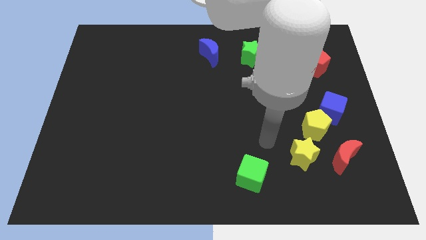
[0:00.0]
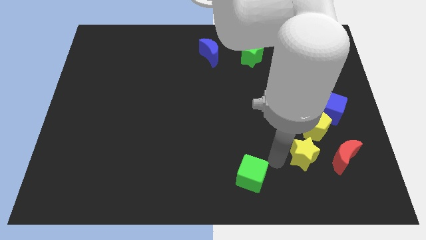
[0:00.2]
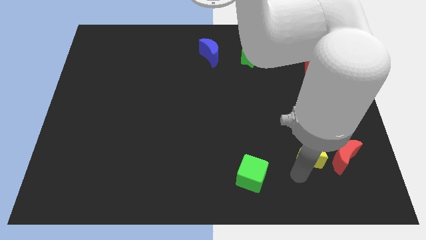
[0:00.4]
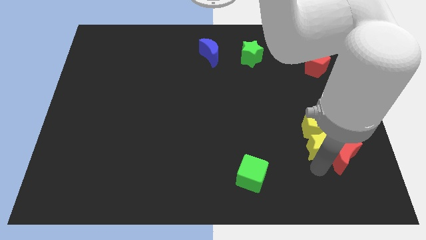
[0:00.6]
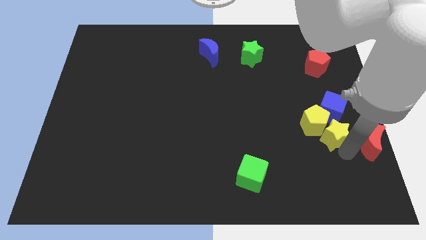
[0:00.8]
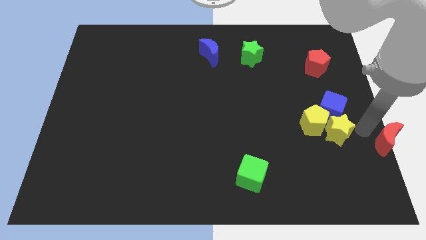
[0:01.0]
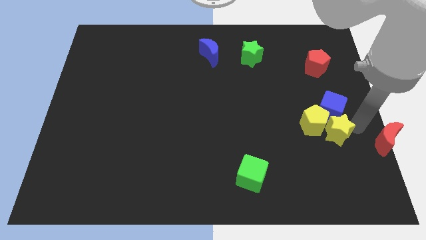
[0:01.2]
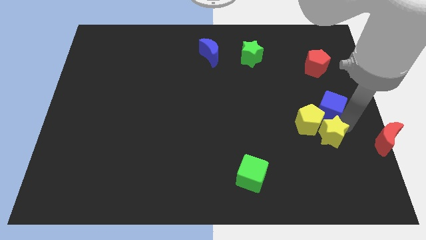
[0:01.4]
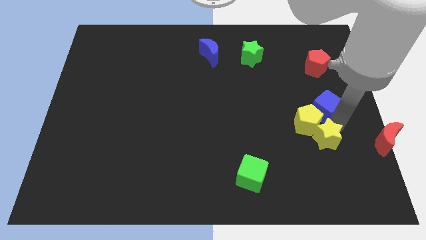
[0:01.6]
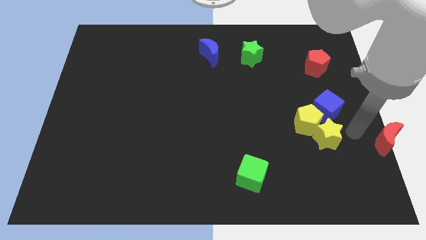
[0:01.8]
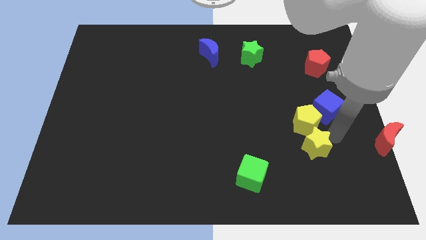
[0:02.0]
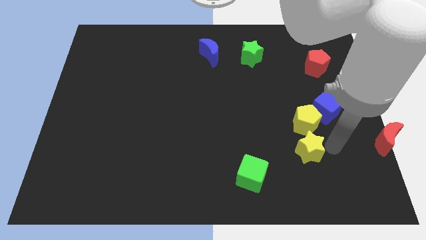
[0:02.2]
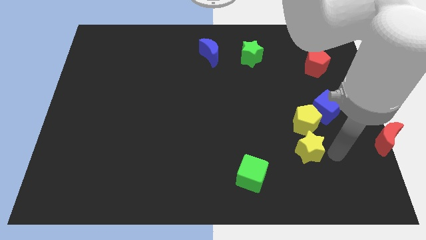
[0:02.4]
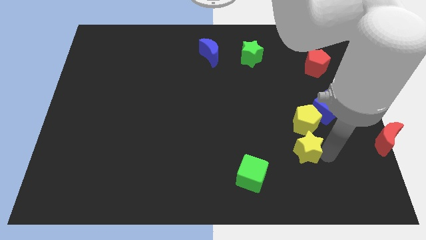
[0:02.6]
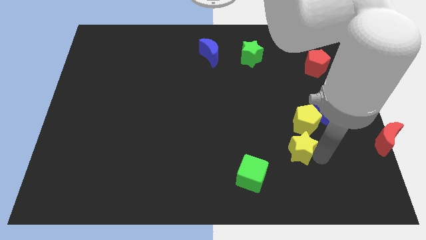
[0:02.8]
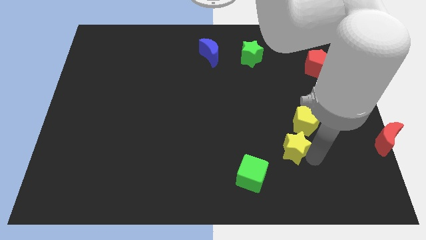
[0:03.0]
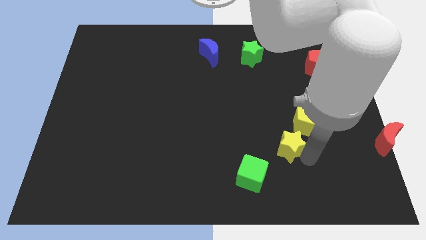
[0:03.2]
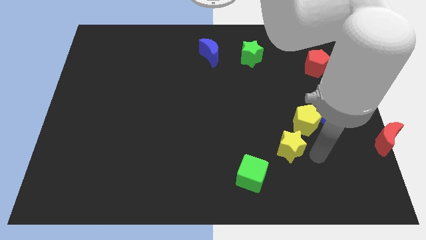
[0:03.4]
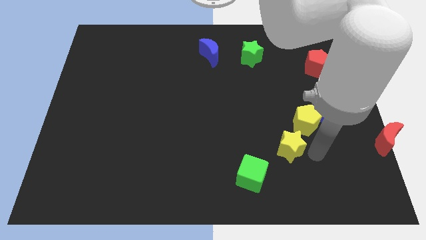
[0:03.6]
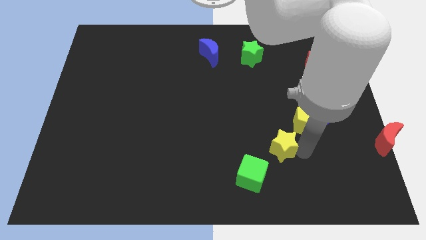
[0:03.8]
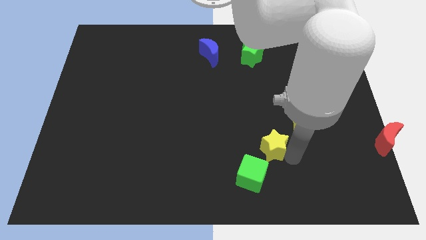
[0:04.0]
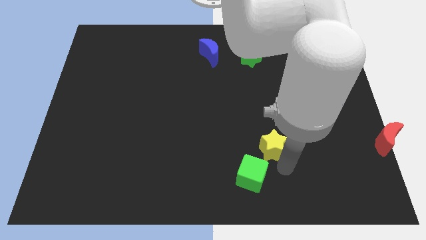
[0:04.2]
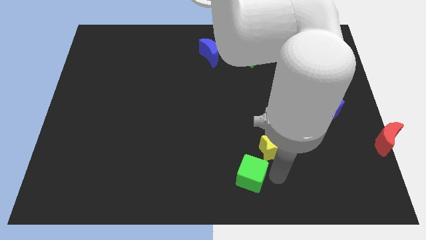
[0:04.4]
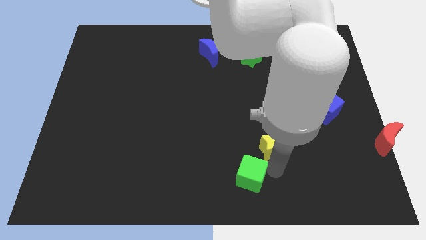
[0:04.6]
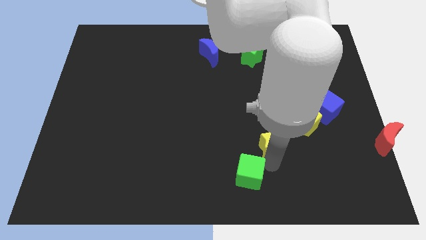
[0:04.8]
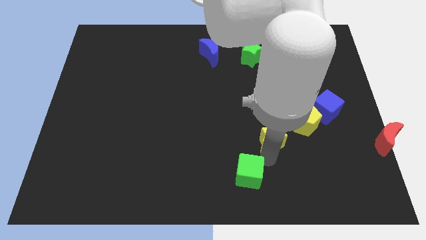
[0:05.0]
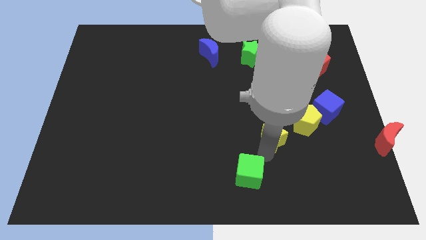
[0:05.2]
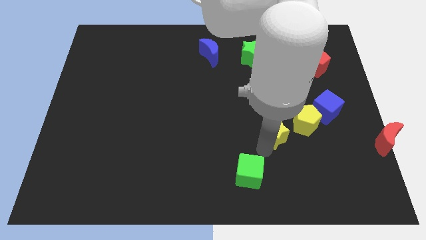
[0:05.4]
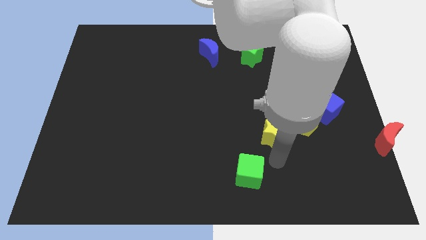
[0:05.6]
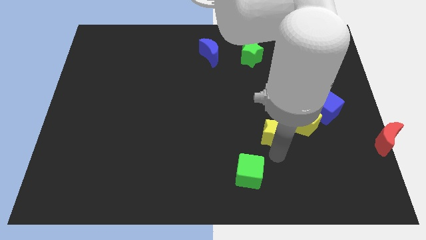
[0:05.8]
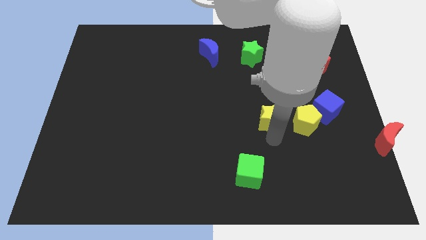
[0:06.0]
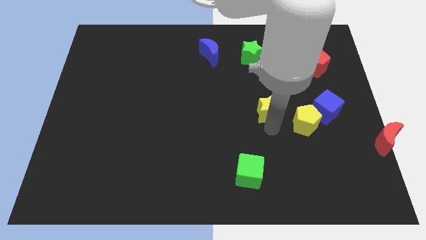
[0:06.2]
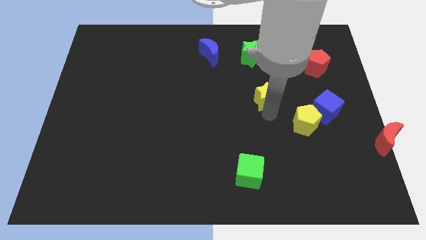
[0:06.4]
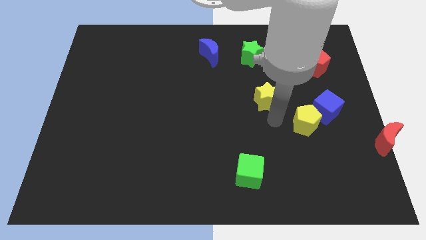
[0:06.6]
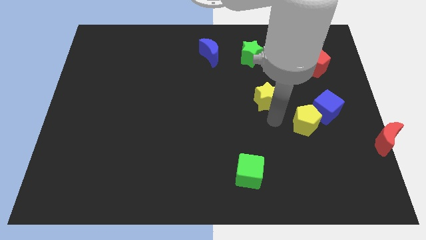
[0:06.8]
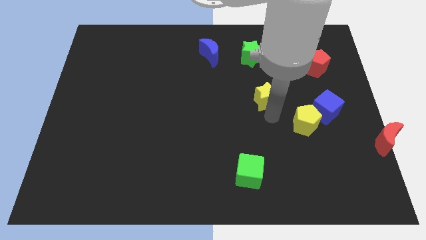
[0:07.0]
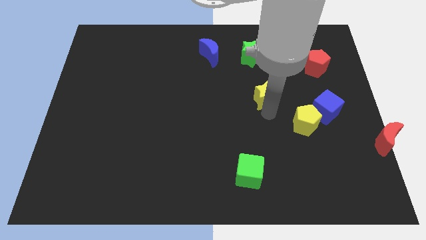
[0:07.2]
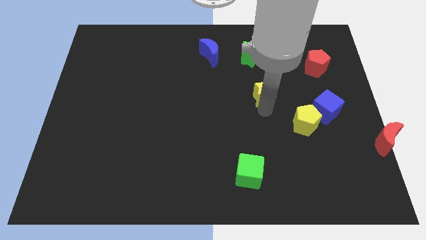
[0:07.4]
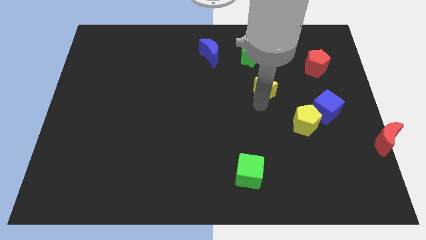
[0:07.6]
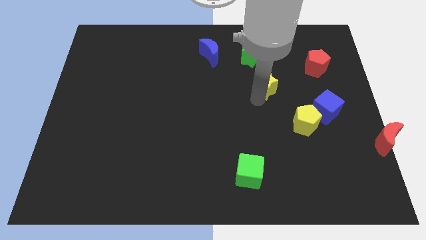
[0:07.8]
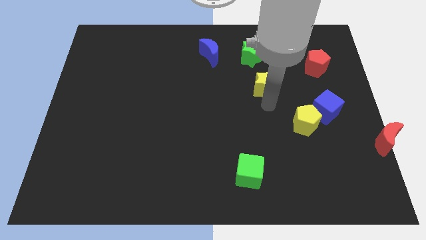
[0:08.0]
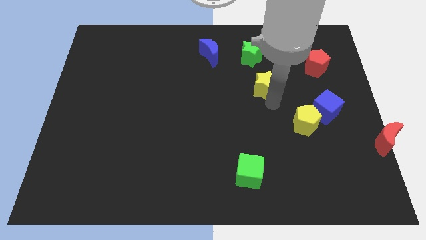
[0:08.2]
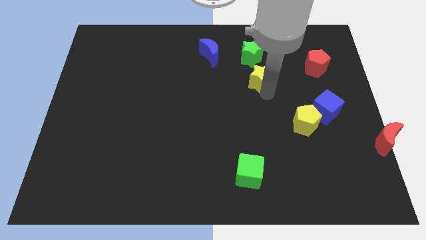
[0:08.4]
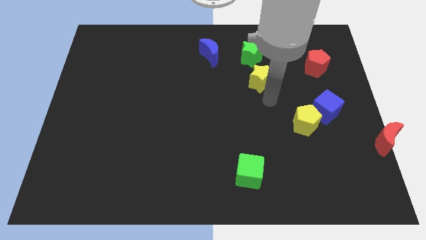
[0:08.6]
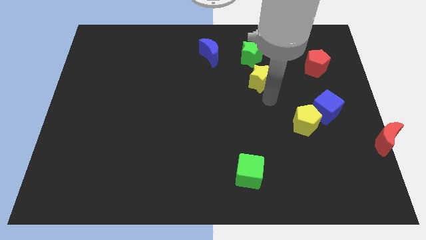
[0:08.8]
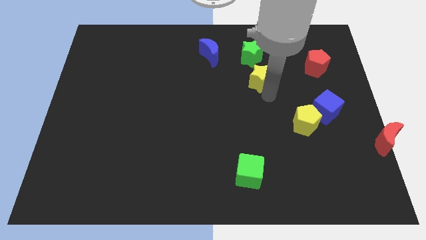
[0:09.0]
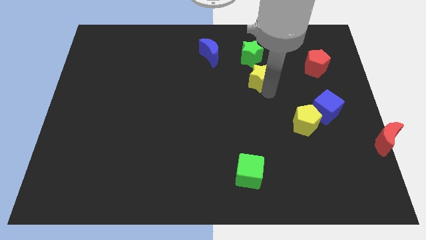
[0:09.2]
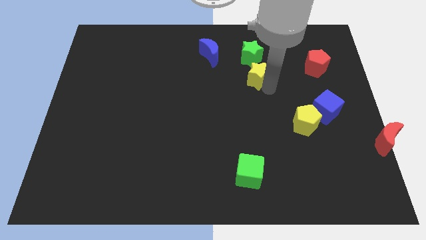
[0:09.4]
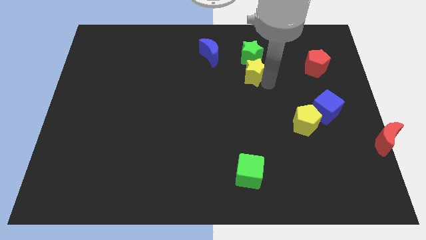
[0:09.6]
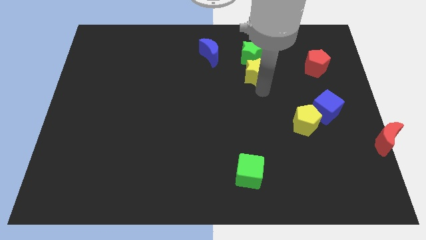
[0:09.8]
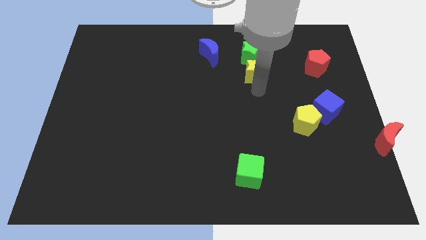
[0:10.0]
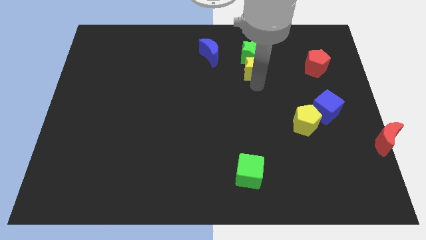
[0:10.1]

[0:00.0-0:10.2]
move the yellow star next to the green star

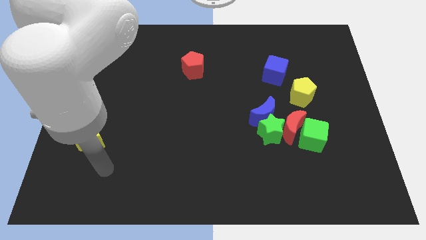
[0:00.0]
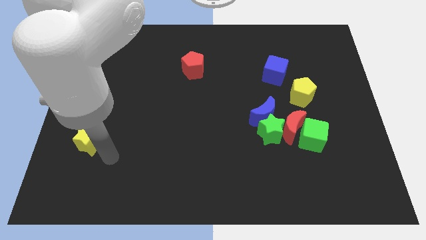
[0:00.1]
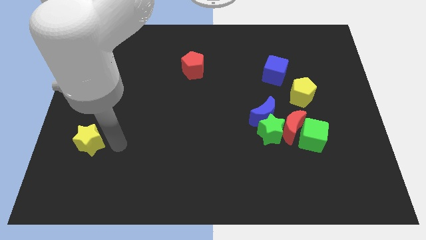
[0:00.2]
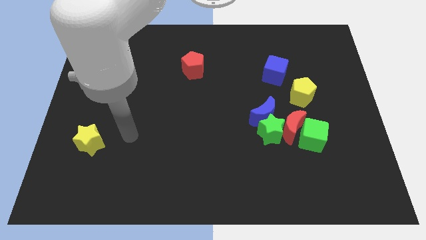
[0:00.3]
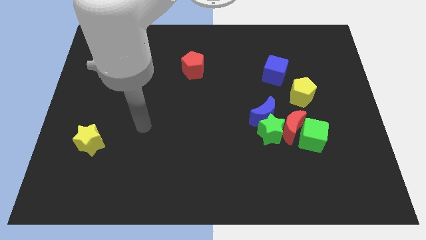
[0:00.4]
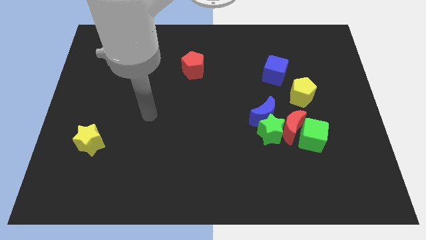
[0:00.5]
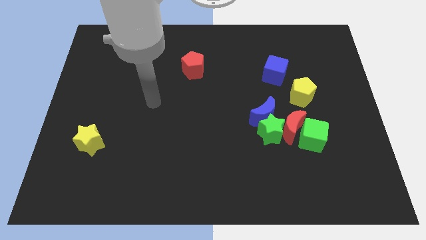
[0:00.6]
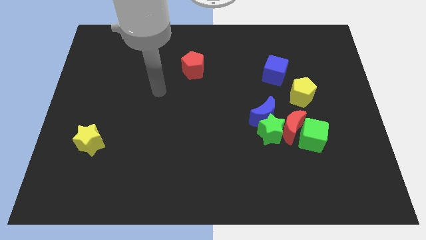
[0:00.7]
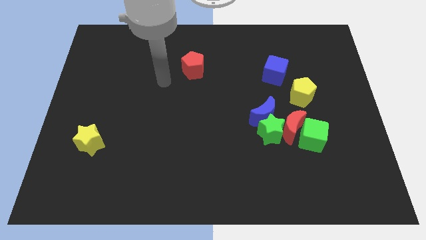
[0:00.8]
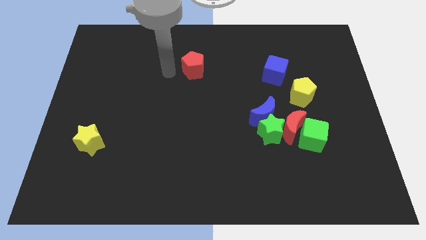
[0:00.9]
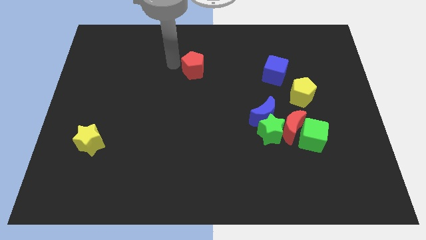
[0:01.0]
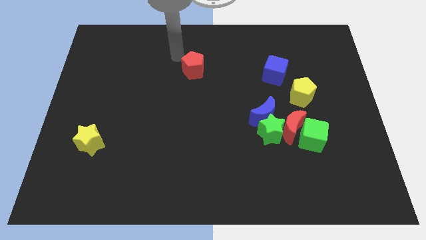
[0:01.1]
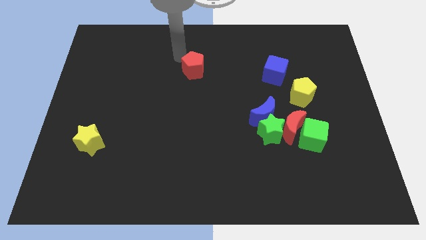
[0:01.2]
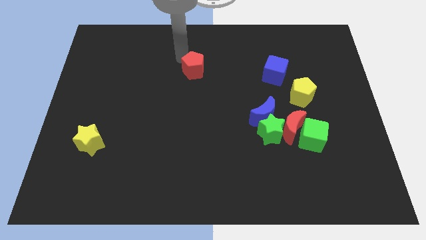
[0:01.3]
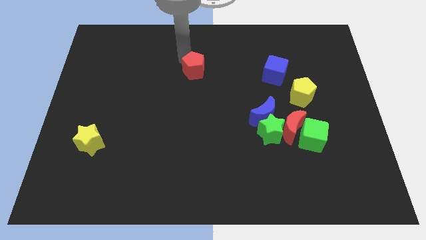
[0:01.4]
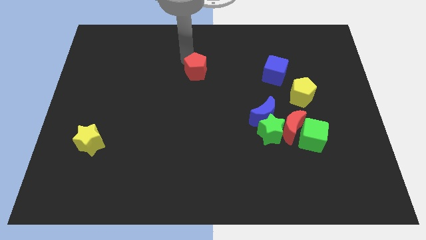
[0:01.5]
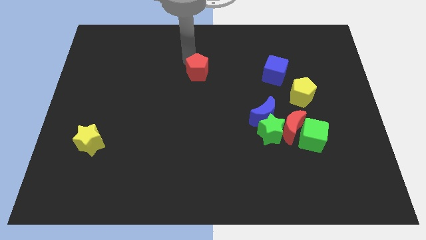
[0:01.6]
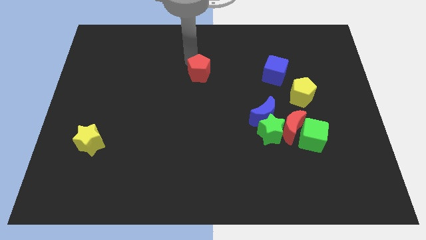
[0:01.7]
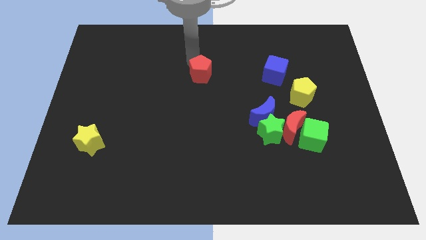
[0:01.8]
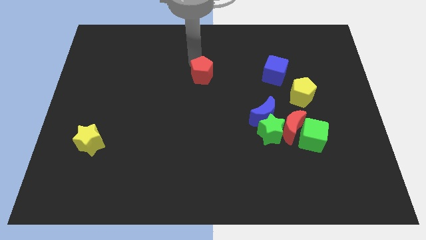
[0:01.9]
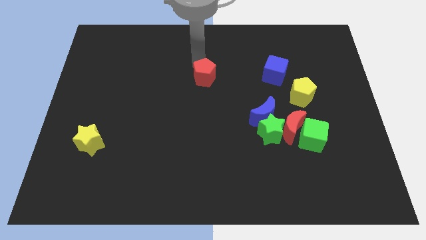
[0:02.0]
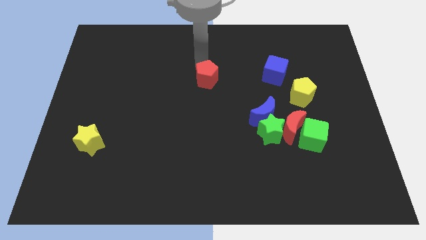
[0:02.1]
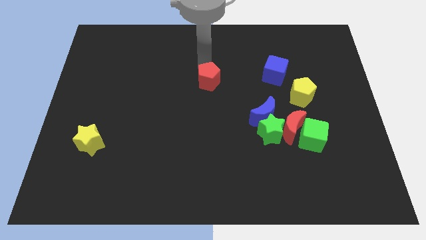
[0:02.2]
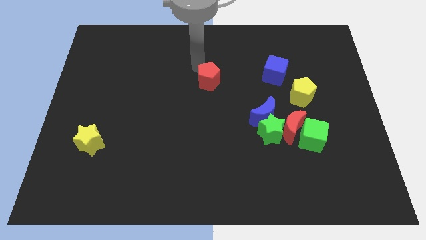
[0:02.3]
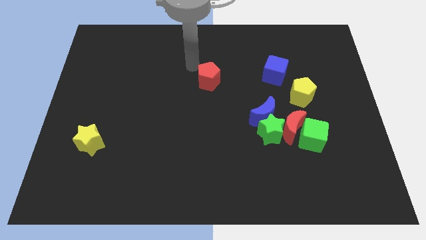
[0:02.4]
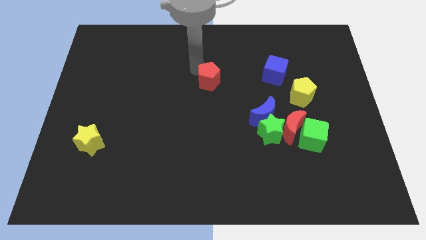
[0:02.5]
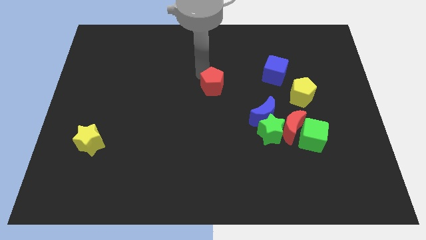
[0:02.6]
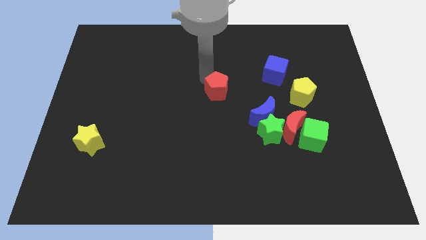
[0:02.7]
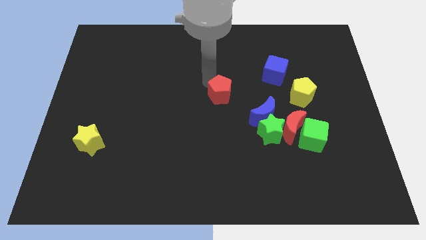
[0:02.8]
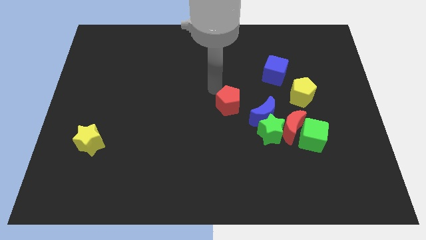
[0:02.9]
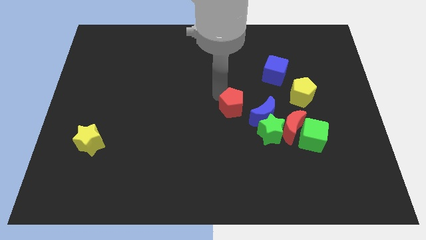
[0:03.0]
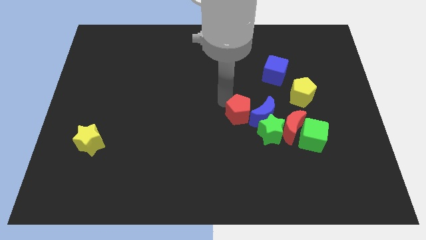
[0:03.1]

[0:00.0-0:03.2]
put the red pentagon towards the blue moon
